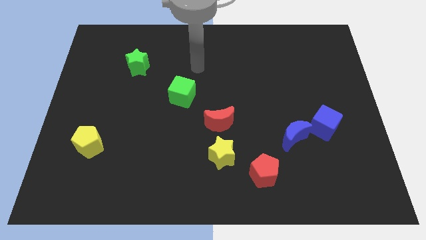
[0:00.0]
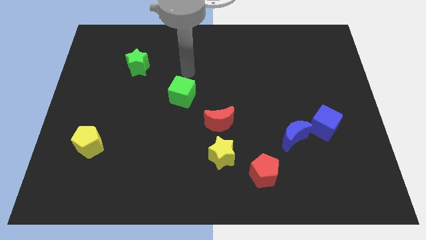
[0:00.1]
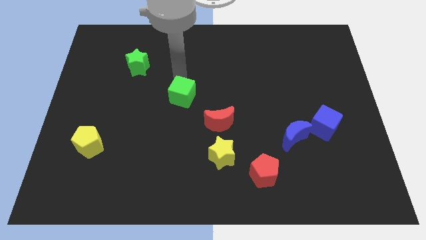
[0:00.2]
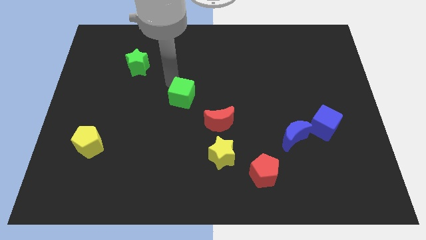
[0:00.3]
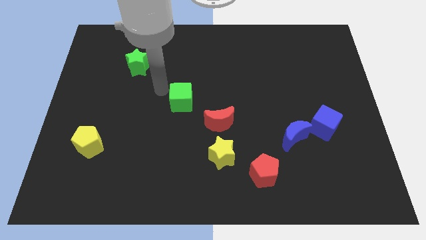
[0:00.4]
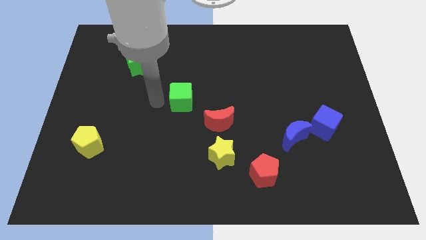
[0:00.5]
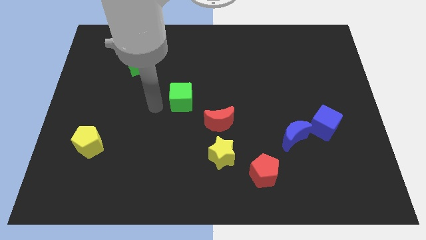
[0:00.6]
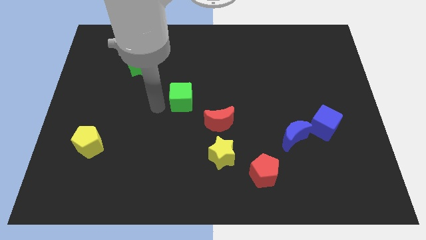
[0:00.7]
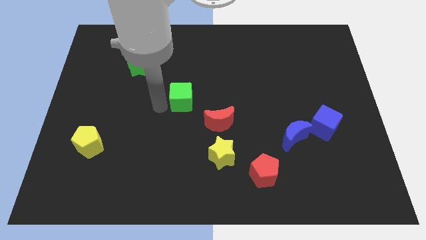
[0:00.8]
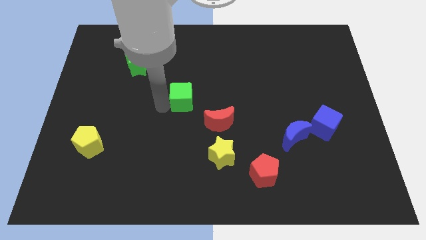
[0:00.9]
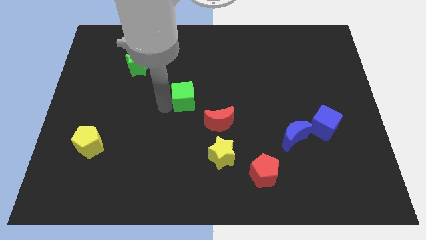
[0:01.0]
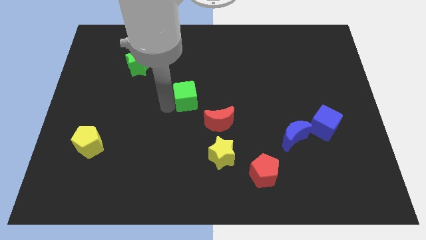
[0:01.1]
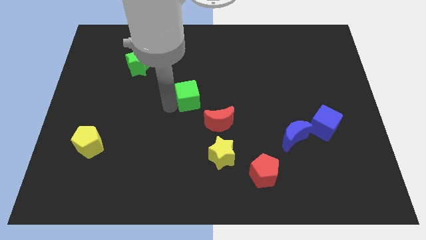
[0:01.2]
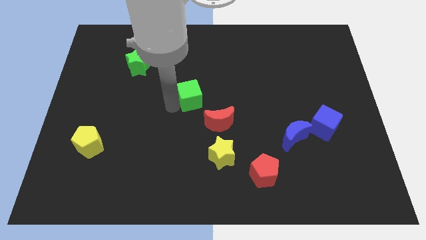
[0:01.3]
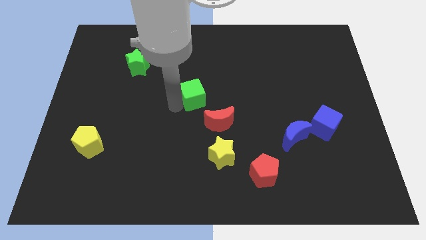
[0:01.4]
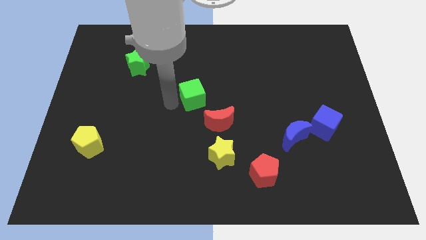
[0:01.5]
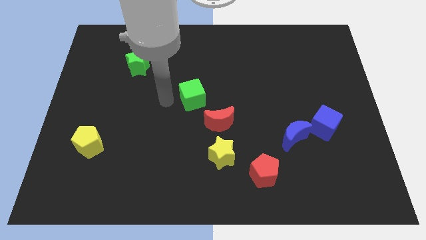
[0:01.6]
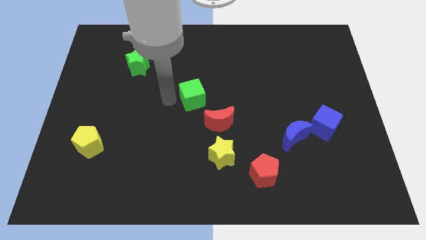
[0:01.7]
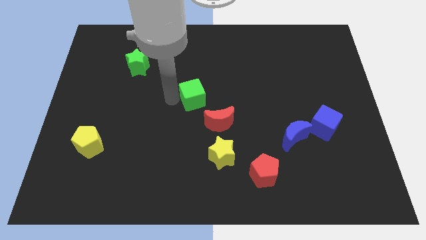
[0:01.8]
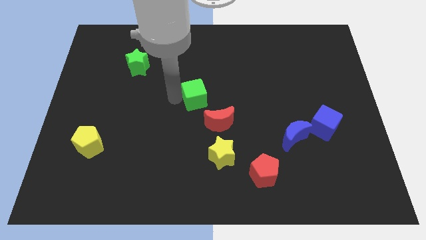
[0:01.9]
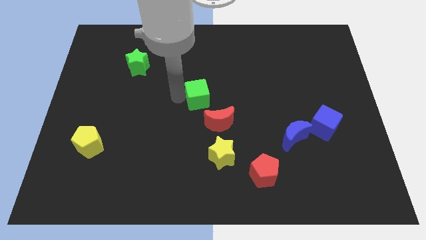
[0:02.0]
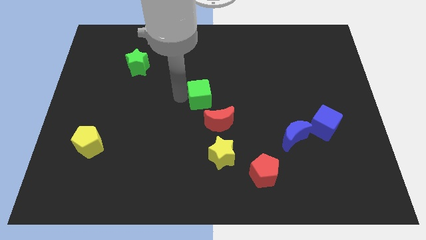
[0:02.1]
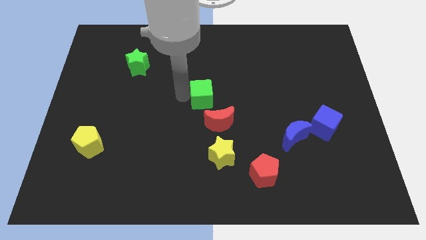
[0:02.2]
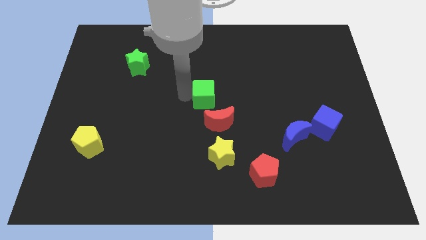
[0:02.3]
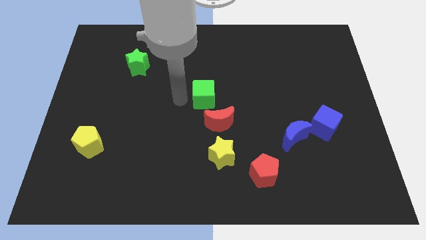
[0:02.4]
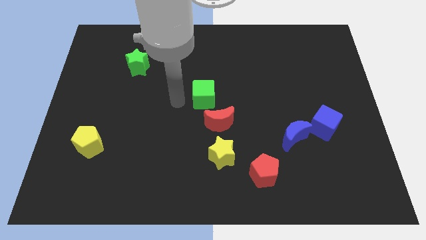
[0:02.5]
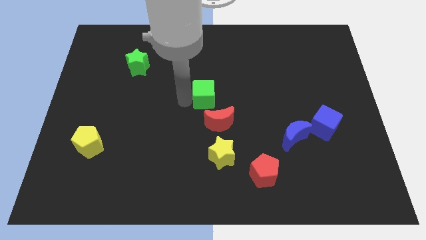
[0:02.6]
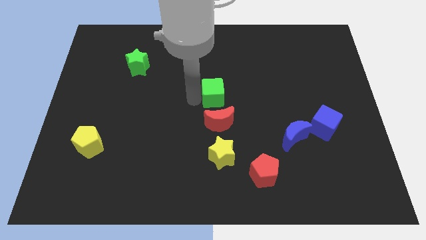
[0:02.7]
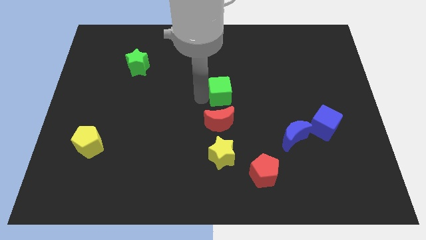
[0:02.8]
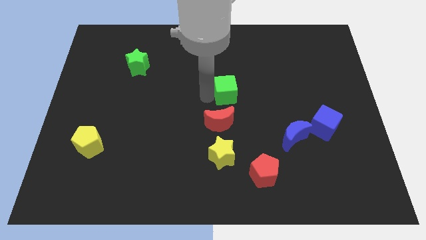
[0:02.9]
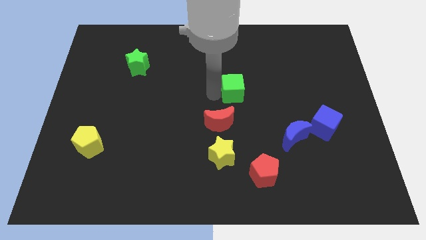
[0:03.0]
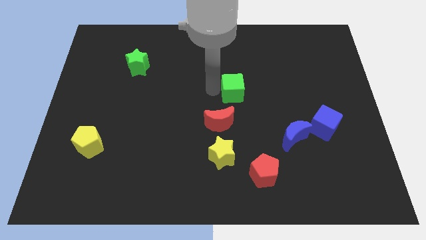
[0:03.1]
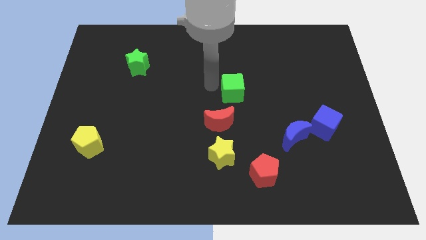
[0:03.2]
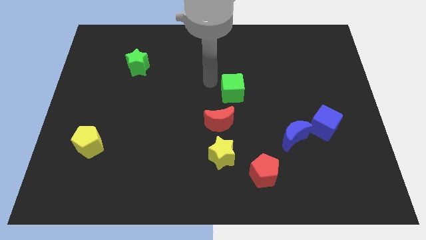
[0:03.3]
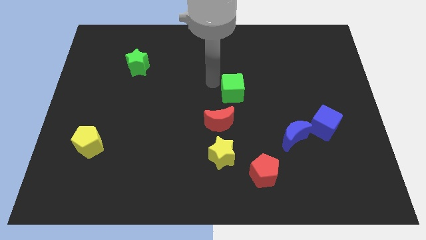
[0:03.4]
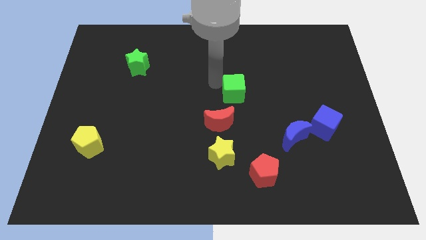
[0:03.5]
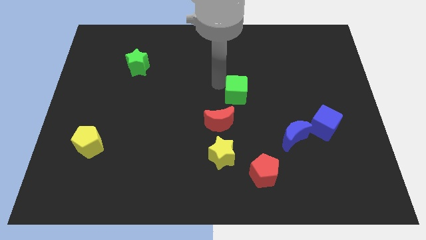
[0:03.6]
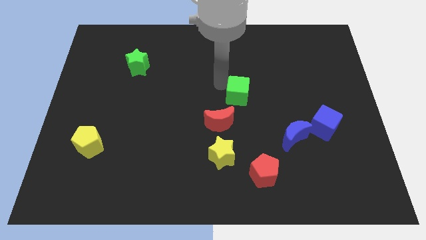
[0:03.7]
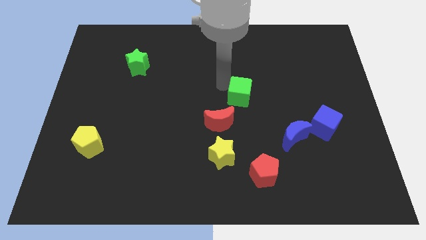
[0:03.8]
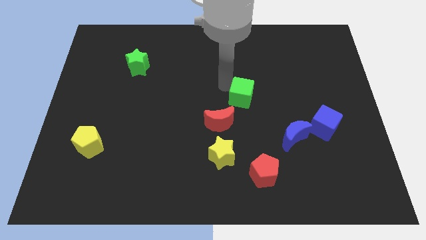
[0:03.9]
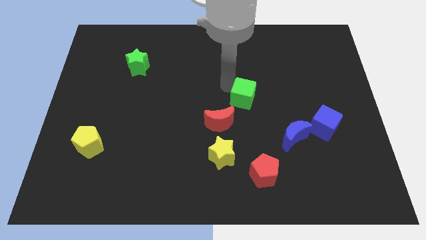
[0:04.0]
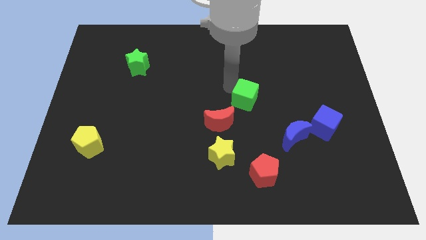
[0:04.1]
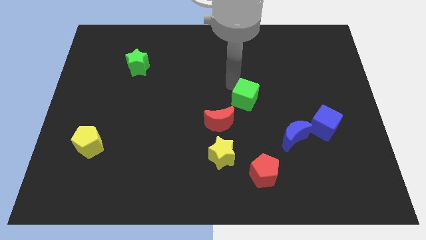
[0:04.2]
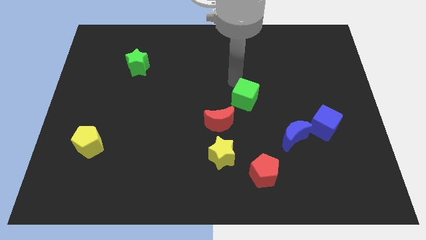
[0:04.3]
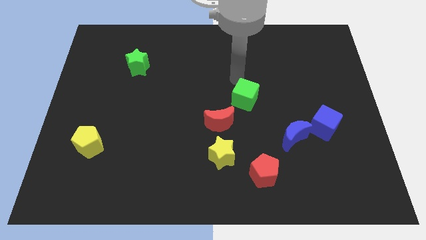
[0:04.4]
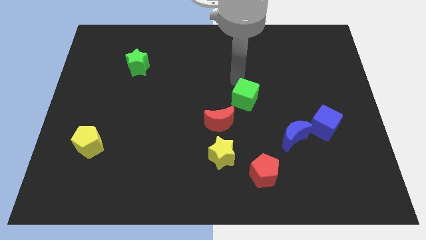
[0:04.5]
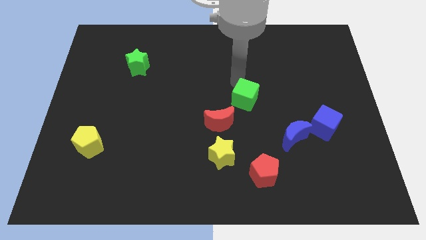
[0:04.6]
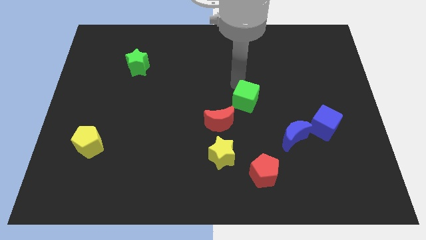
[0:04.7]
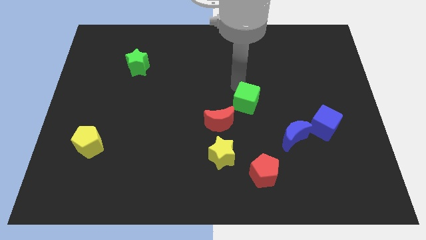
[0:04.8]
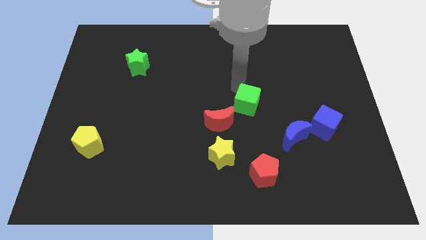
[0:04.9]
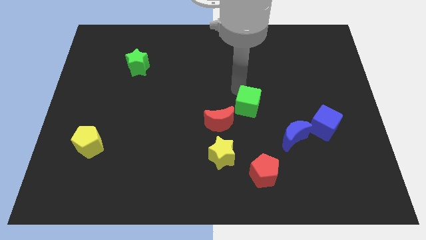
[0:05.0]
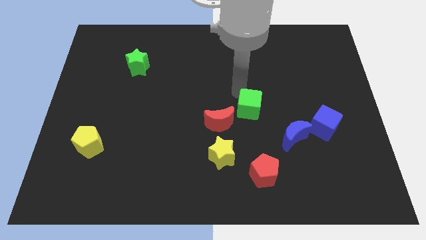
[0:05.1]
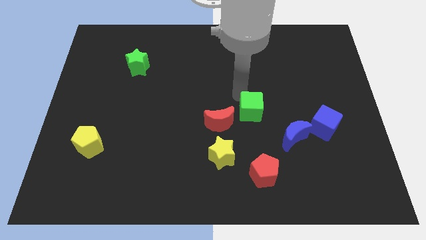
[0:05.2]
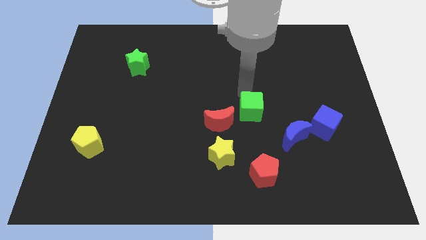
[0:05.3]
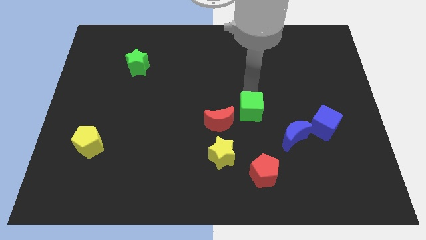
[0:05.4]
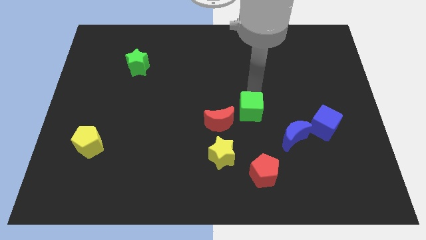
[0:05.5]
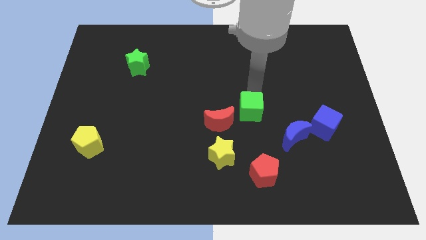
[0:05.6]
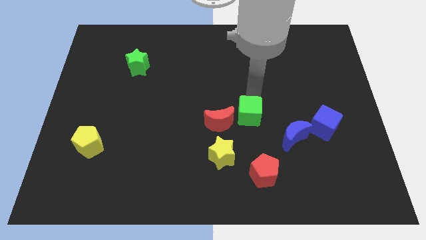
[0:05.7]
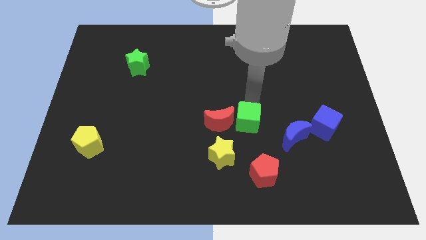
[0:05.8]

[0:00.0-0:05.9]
put the green cube diagonally up and to the right of the yellow star
